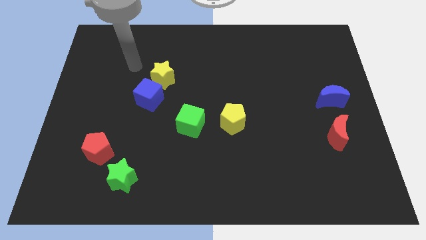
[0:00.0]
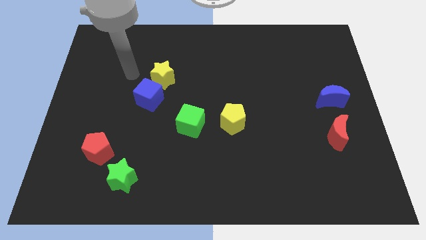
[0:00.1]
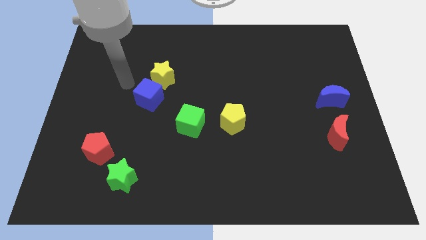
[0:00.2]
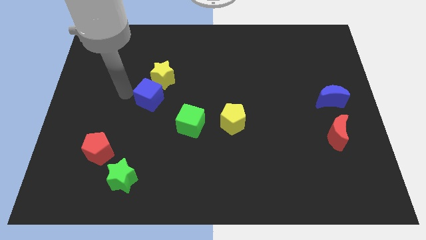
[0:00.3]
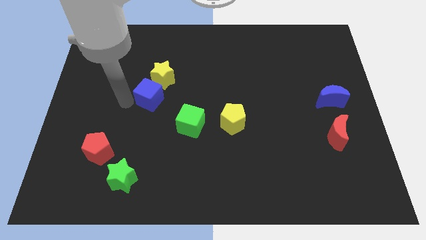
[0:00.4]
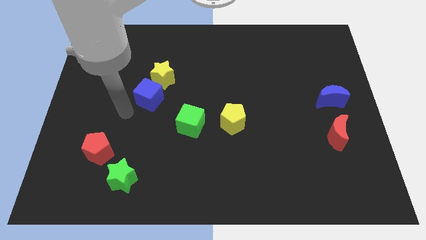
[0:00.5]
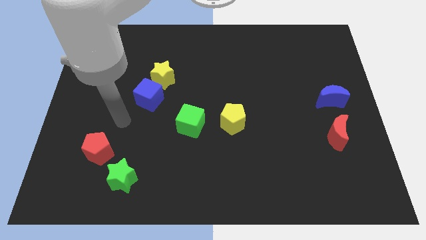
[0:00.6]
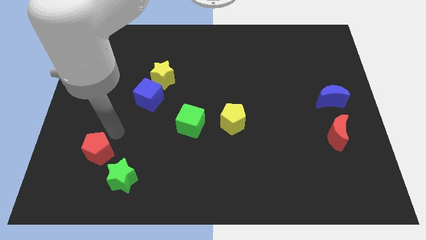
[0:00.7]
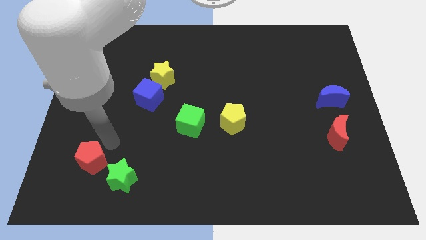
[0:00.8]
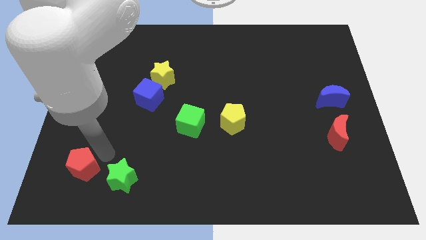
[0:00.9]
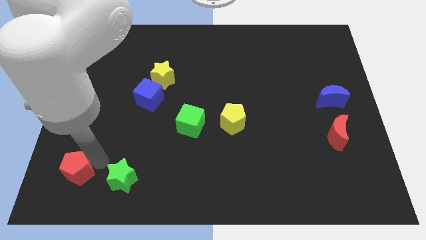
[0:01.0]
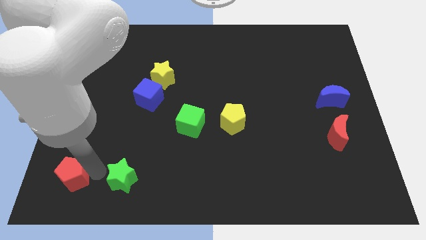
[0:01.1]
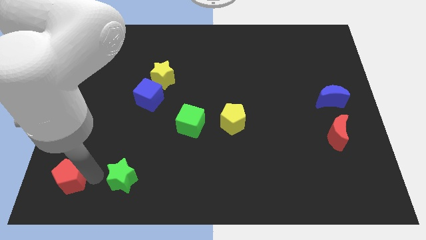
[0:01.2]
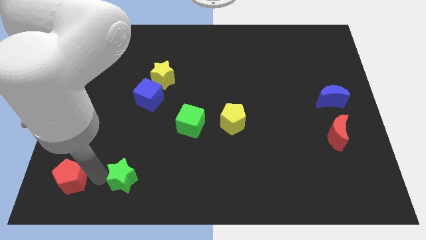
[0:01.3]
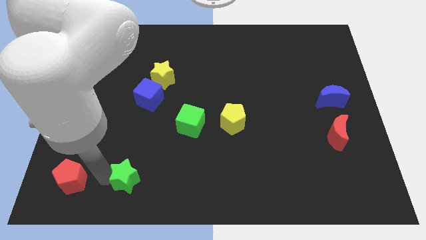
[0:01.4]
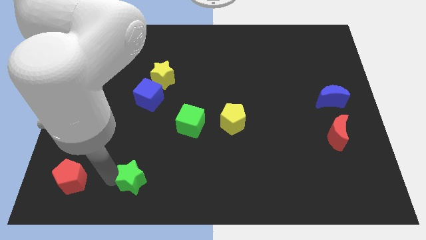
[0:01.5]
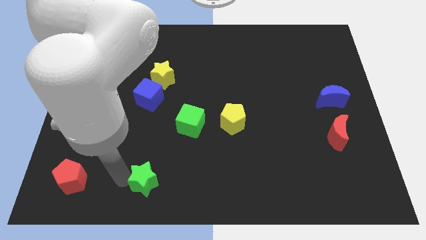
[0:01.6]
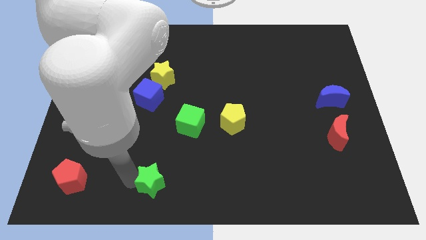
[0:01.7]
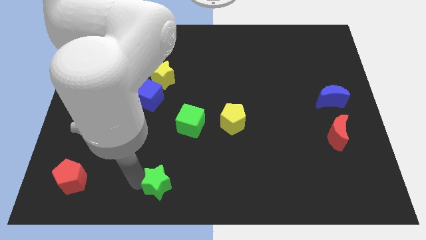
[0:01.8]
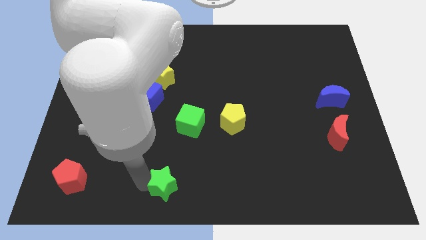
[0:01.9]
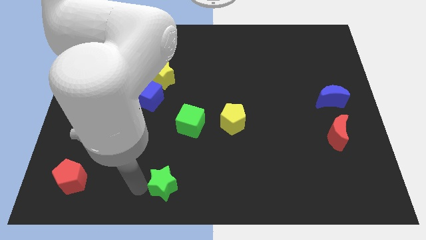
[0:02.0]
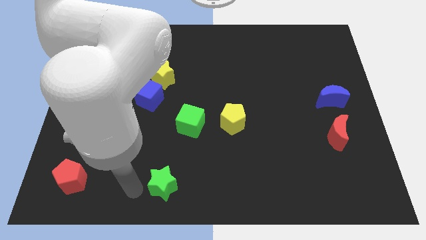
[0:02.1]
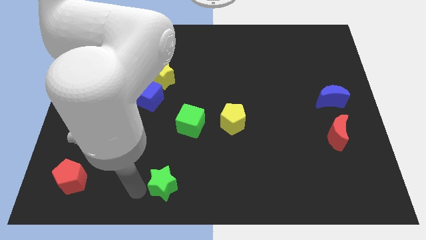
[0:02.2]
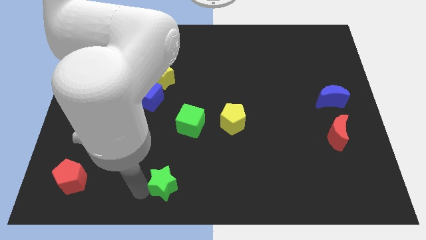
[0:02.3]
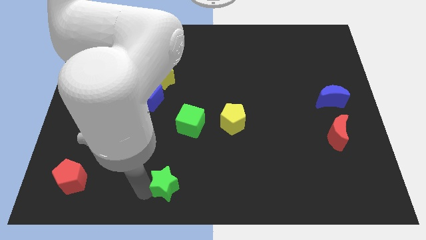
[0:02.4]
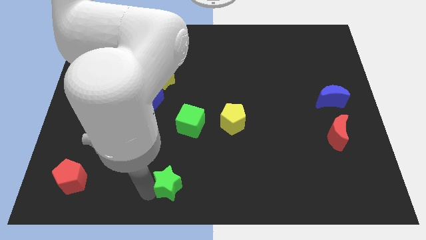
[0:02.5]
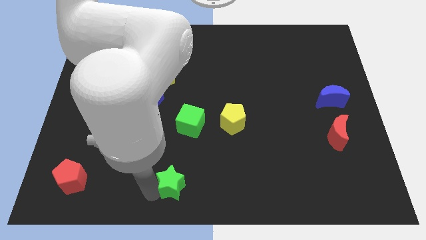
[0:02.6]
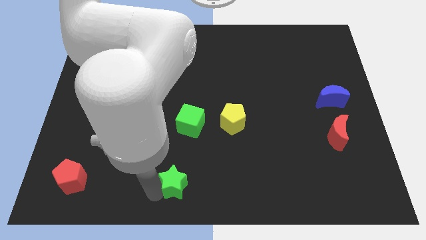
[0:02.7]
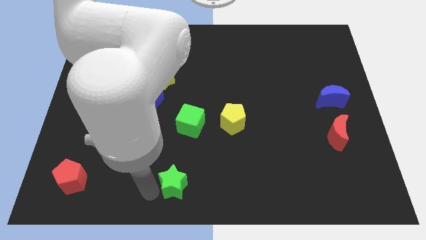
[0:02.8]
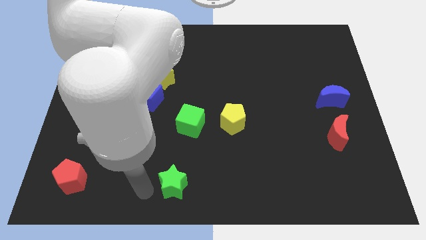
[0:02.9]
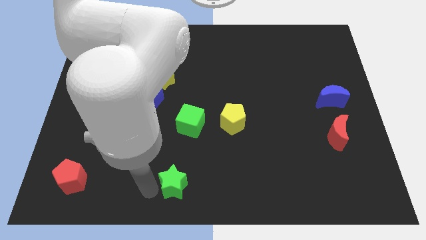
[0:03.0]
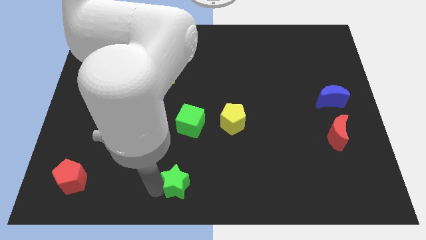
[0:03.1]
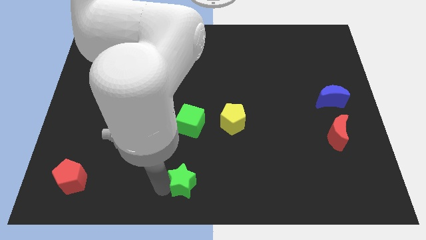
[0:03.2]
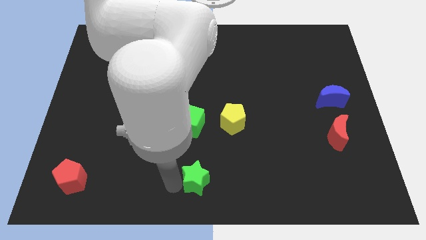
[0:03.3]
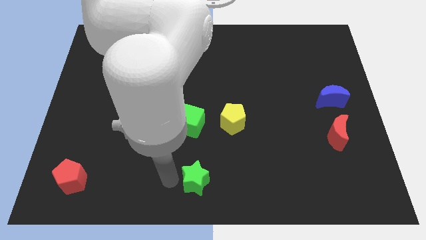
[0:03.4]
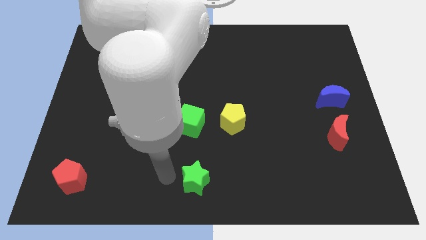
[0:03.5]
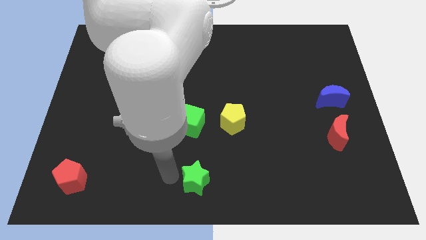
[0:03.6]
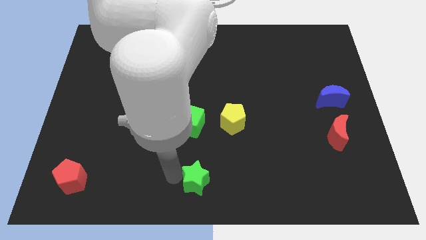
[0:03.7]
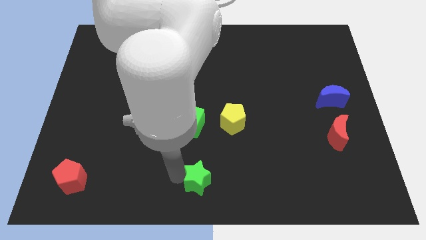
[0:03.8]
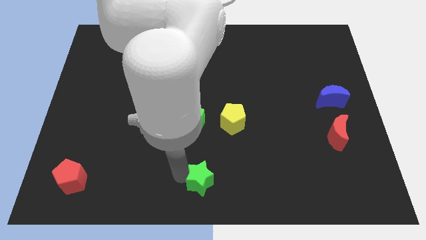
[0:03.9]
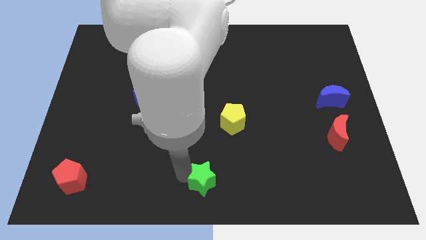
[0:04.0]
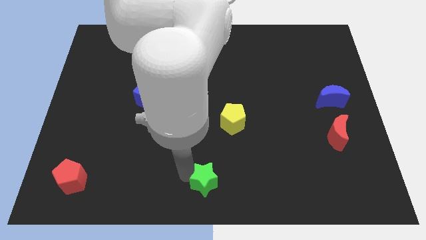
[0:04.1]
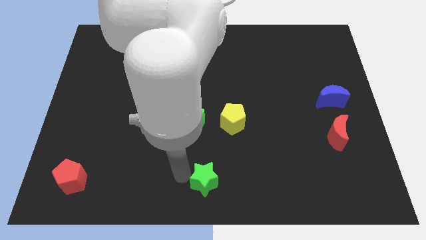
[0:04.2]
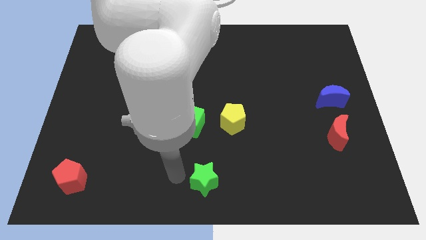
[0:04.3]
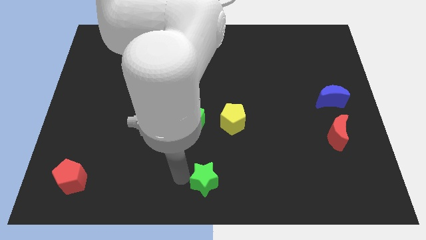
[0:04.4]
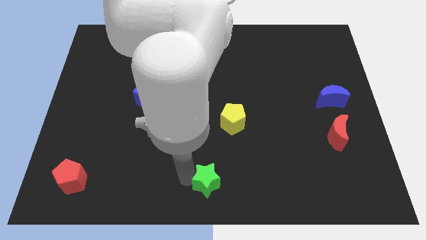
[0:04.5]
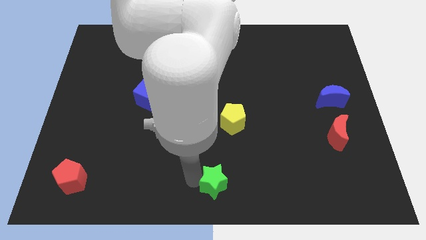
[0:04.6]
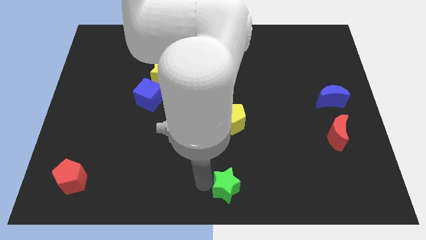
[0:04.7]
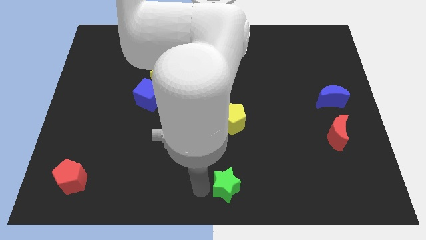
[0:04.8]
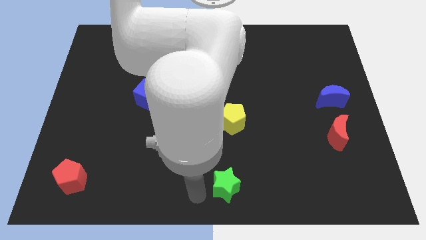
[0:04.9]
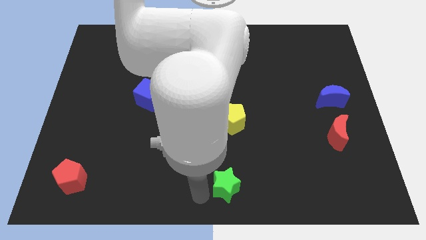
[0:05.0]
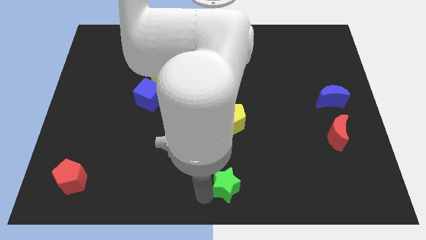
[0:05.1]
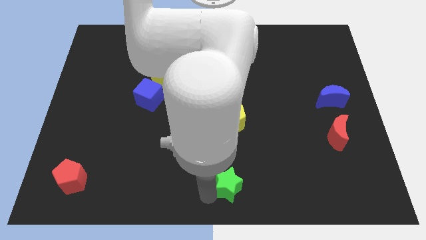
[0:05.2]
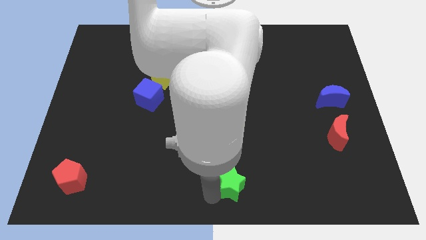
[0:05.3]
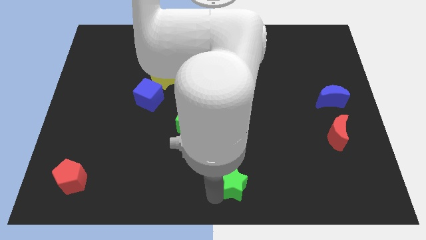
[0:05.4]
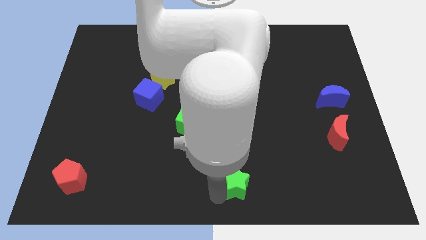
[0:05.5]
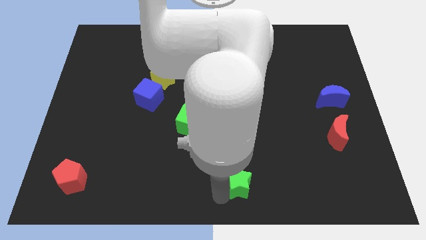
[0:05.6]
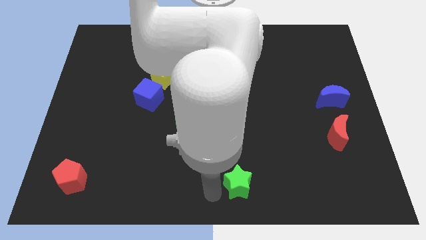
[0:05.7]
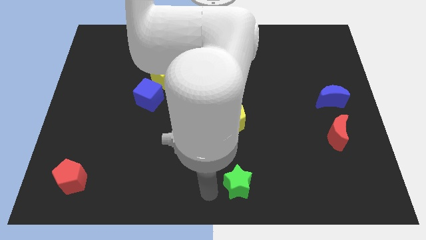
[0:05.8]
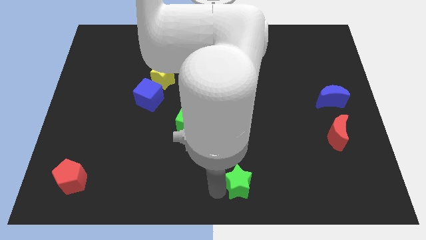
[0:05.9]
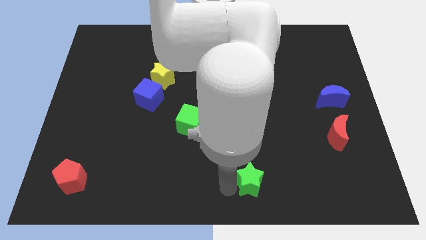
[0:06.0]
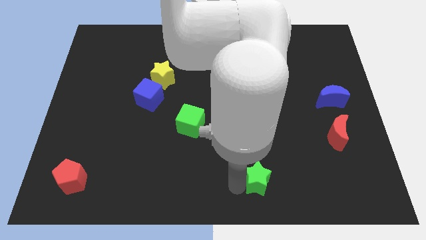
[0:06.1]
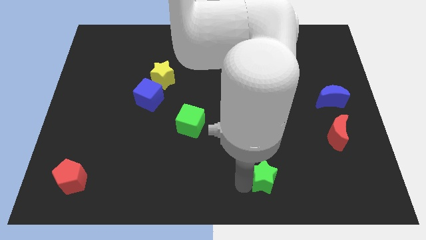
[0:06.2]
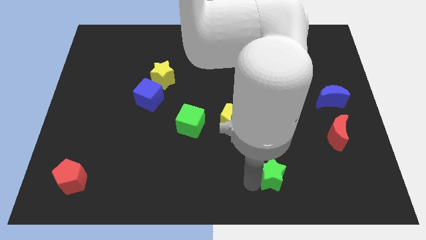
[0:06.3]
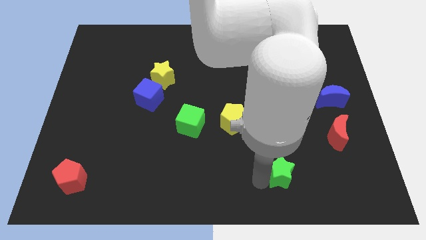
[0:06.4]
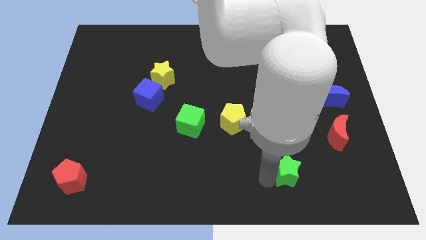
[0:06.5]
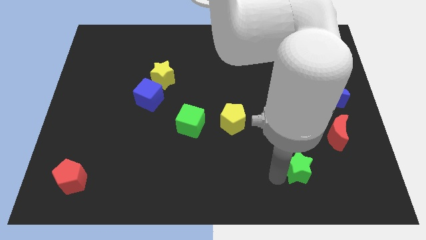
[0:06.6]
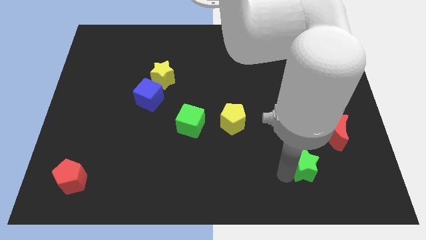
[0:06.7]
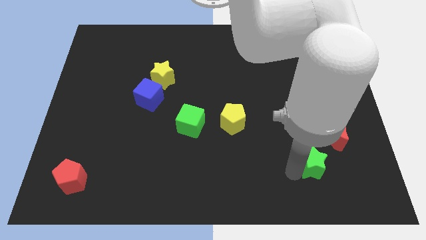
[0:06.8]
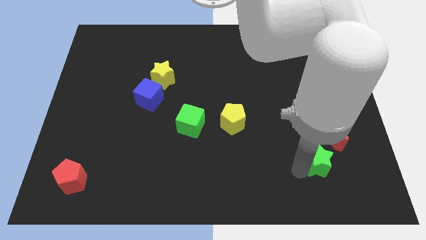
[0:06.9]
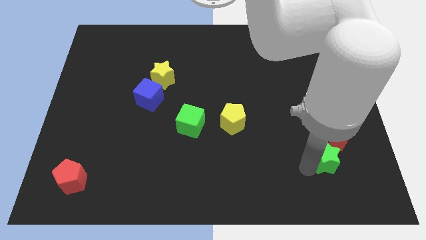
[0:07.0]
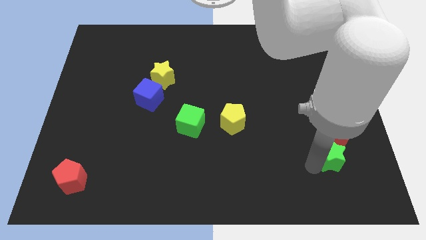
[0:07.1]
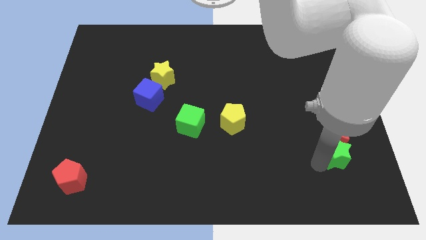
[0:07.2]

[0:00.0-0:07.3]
push the green star to the bottom of the blue moon
